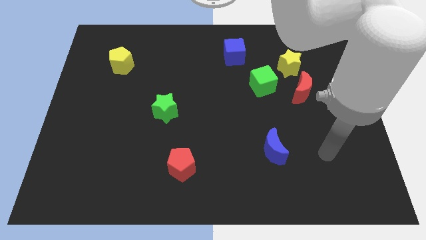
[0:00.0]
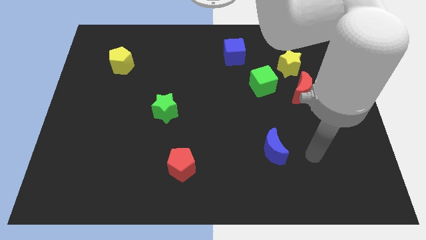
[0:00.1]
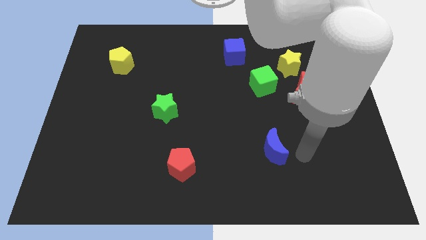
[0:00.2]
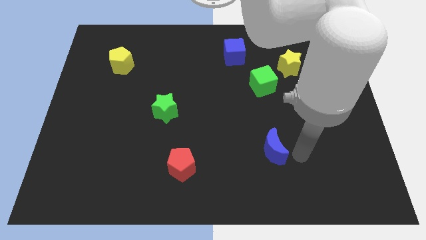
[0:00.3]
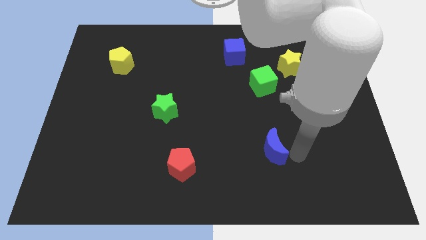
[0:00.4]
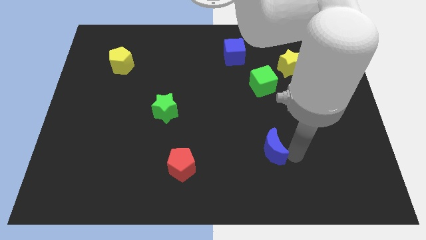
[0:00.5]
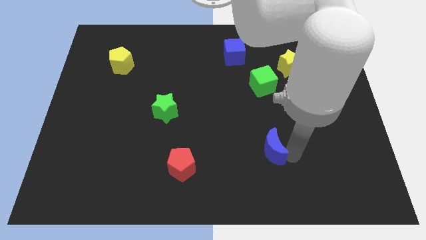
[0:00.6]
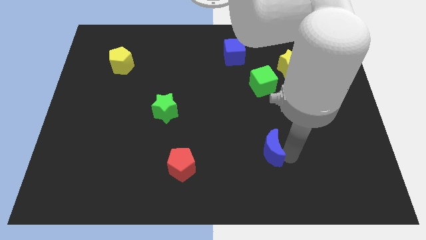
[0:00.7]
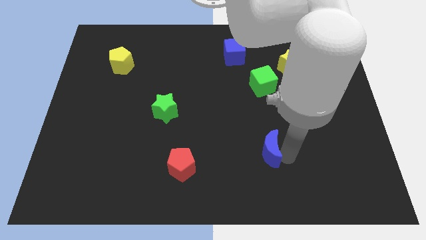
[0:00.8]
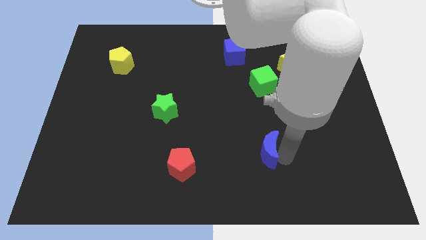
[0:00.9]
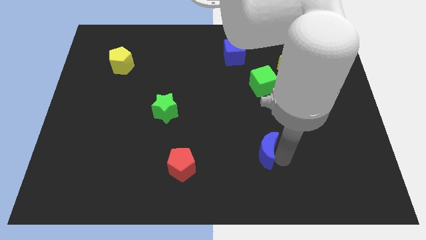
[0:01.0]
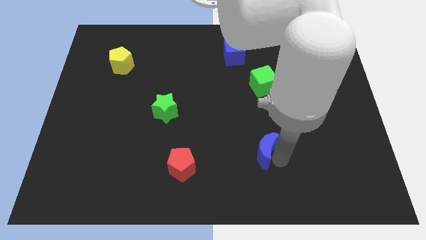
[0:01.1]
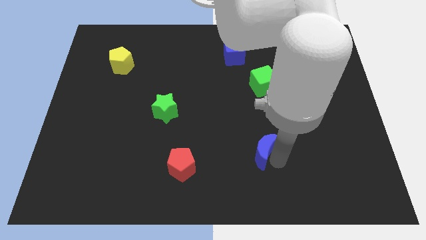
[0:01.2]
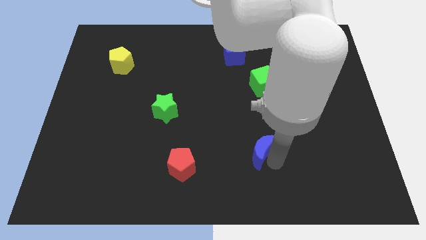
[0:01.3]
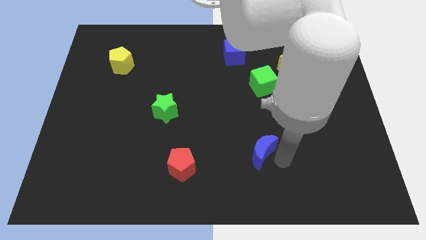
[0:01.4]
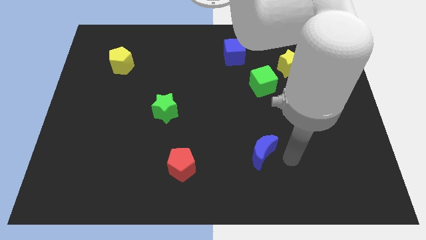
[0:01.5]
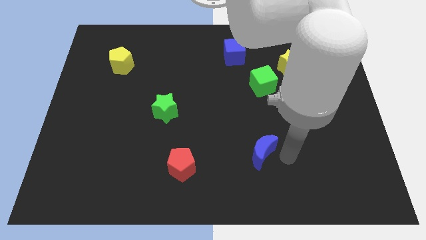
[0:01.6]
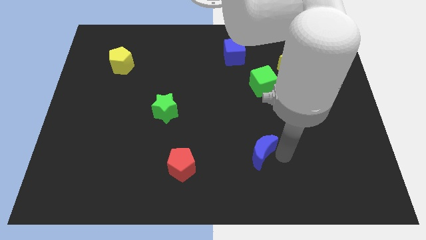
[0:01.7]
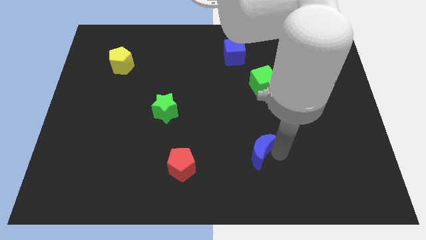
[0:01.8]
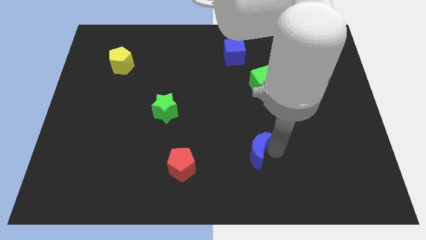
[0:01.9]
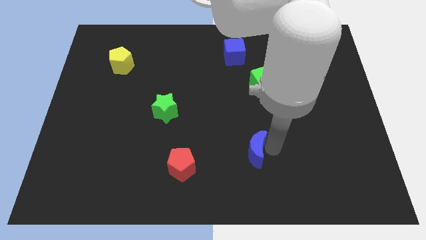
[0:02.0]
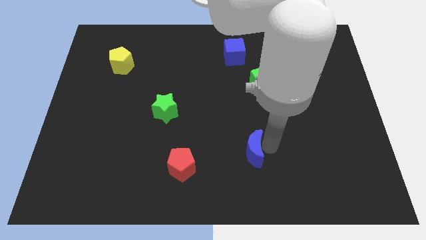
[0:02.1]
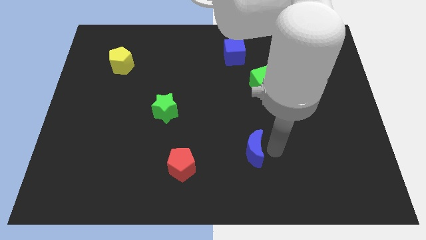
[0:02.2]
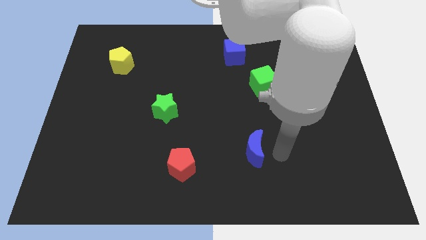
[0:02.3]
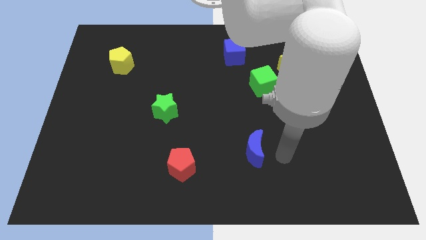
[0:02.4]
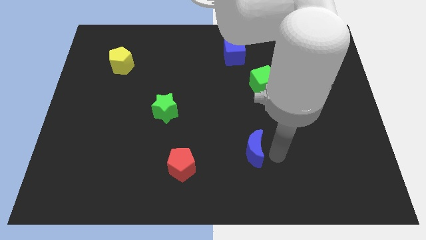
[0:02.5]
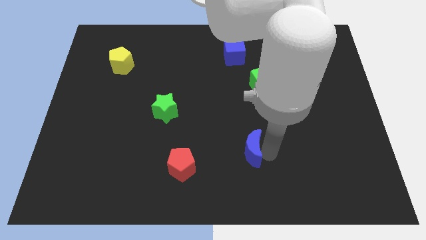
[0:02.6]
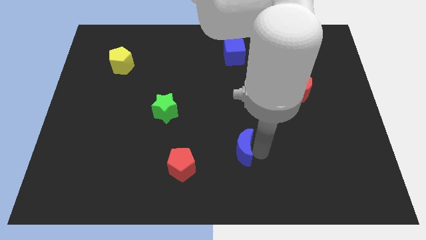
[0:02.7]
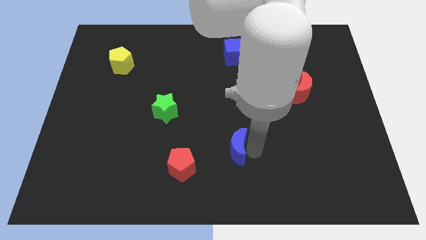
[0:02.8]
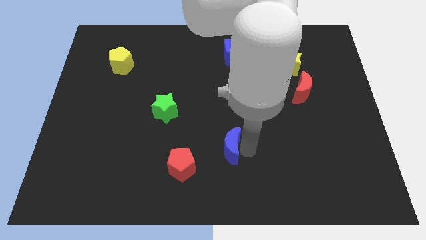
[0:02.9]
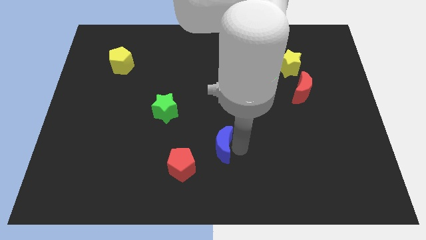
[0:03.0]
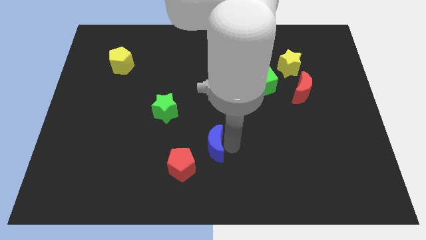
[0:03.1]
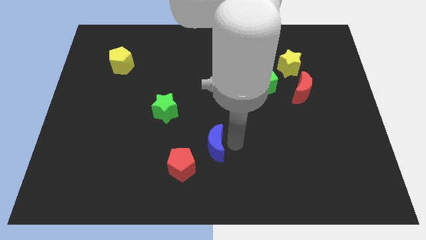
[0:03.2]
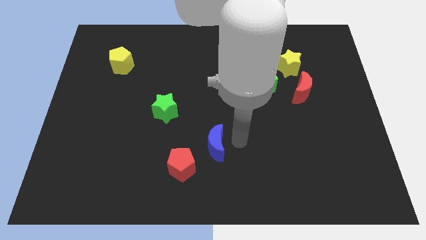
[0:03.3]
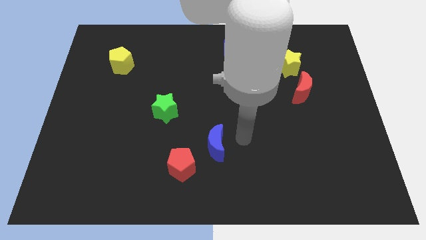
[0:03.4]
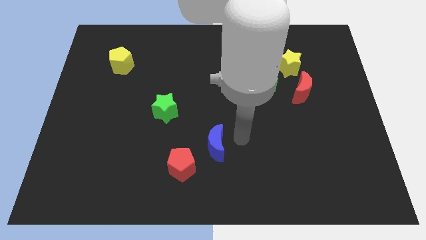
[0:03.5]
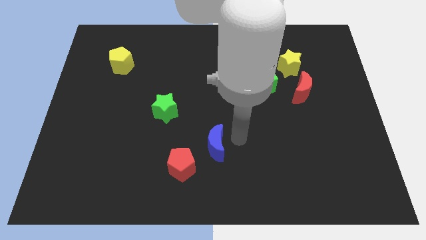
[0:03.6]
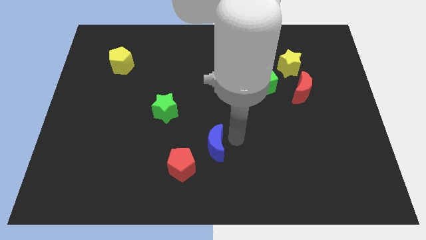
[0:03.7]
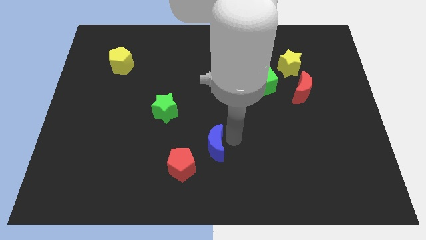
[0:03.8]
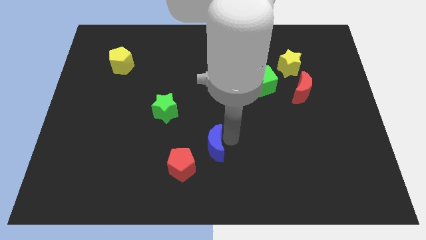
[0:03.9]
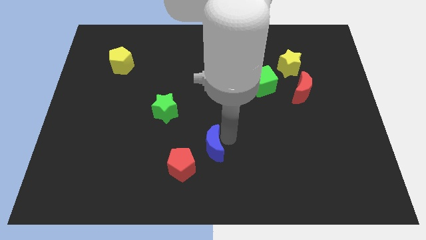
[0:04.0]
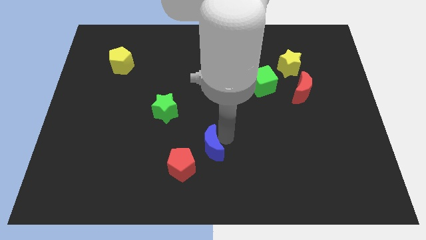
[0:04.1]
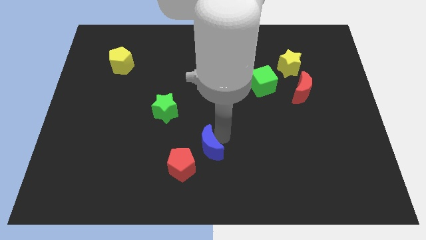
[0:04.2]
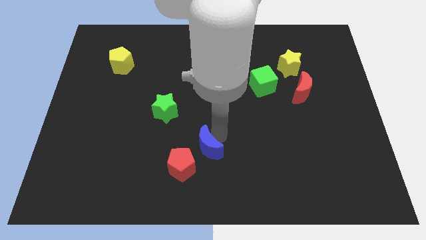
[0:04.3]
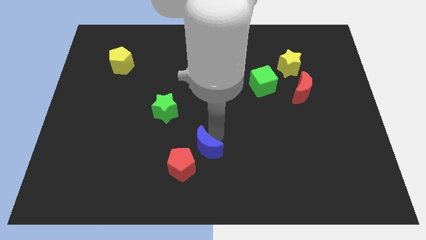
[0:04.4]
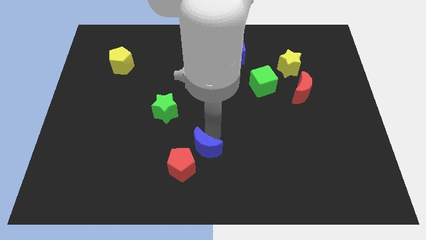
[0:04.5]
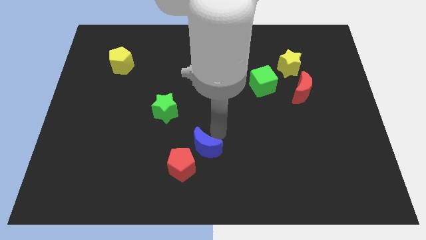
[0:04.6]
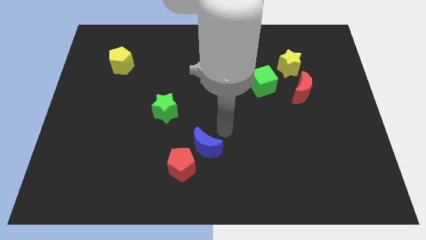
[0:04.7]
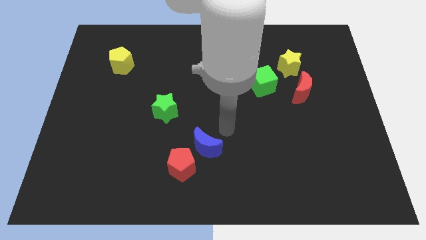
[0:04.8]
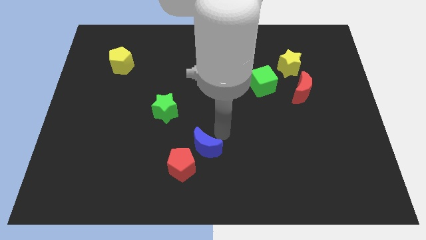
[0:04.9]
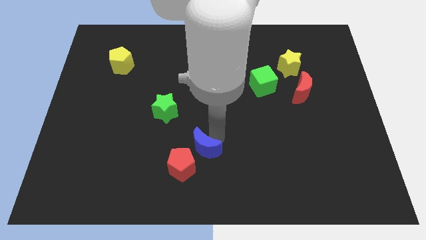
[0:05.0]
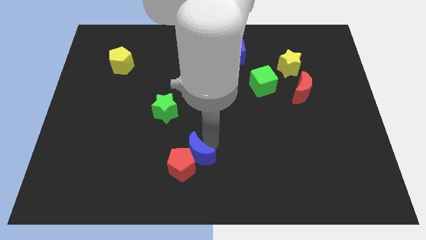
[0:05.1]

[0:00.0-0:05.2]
slide the blue moon next to the red pentagon

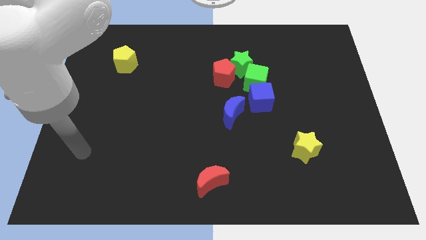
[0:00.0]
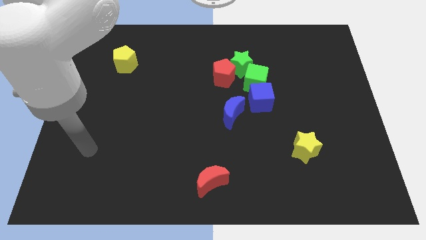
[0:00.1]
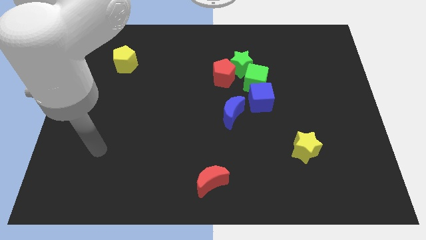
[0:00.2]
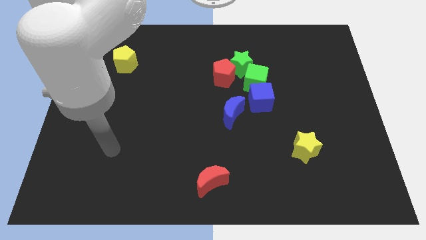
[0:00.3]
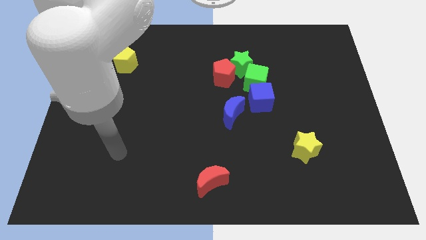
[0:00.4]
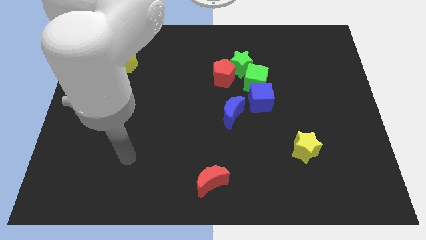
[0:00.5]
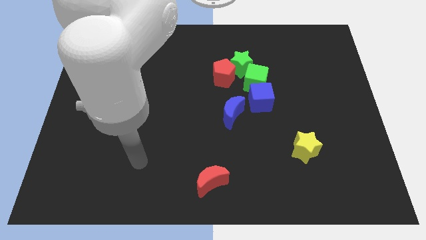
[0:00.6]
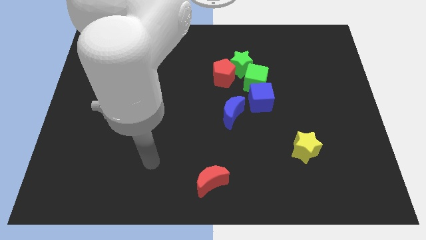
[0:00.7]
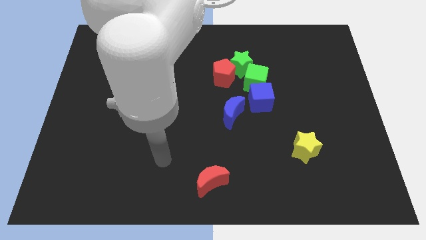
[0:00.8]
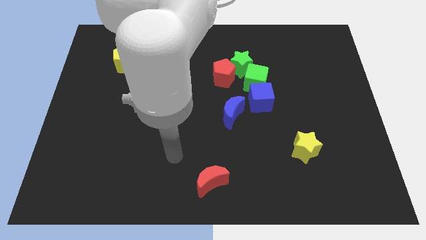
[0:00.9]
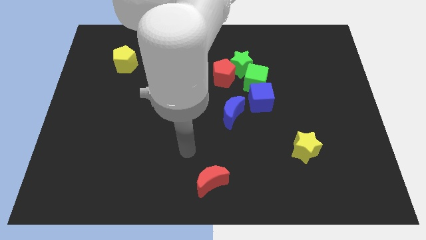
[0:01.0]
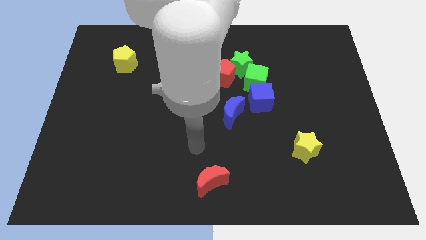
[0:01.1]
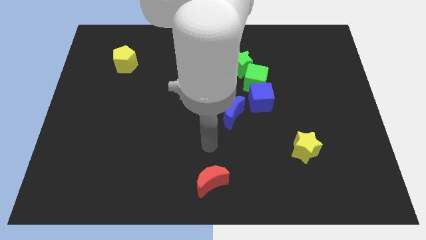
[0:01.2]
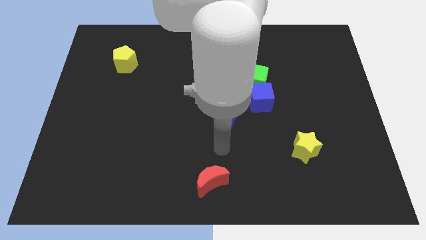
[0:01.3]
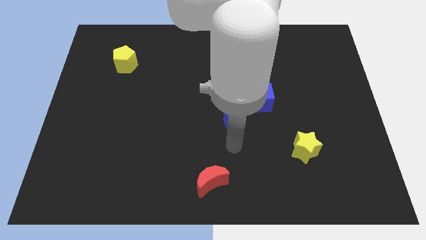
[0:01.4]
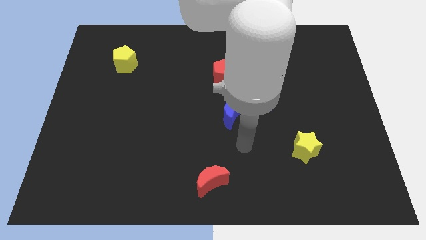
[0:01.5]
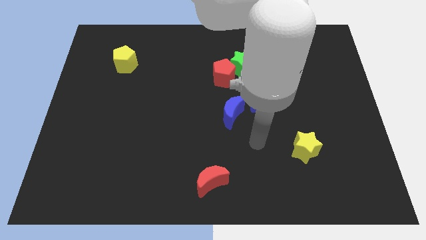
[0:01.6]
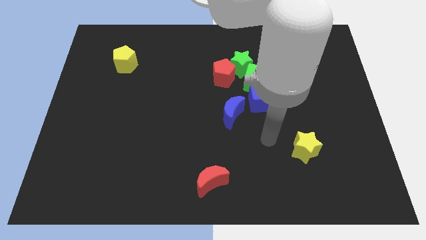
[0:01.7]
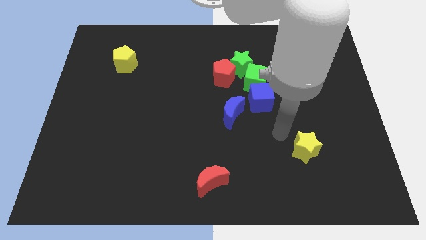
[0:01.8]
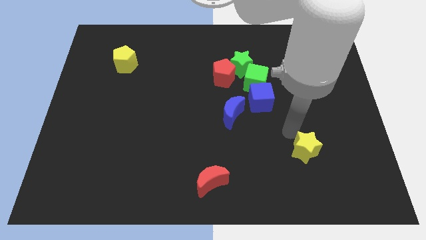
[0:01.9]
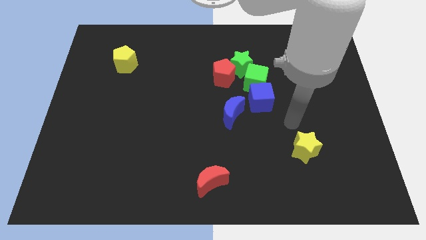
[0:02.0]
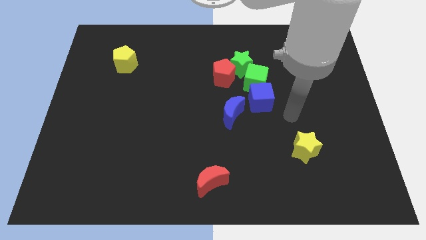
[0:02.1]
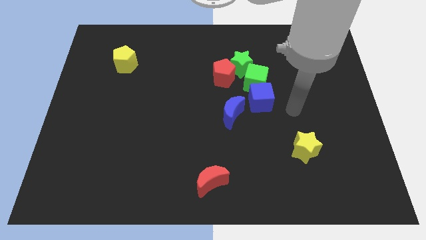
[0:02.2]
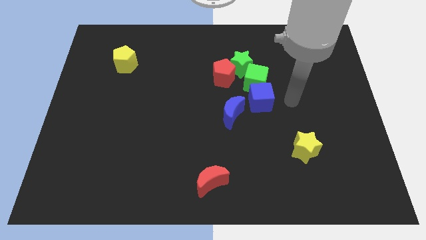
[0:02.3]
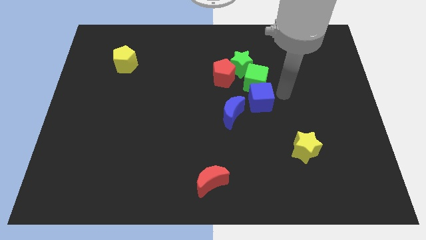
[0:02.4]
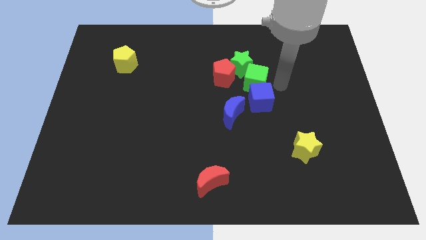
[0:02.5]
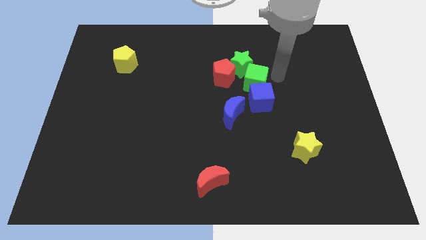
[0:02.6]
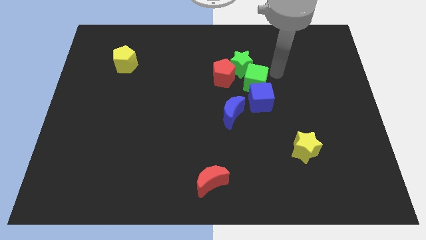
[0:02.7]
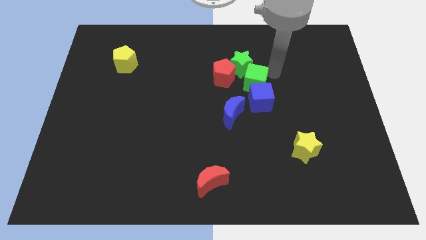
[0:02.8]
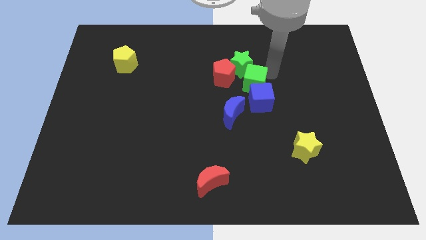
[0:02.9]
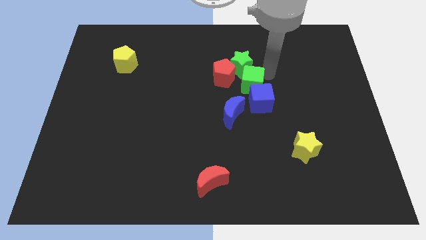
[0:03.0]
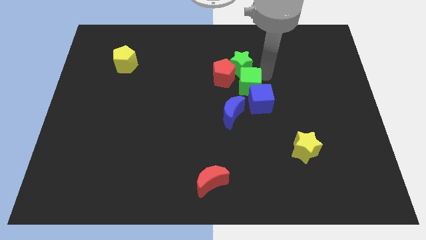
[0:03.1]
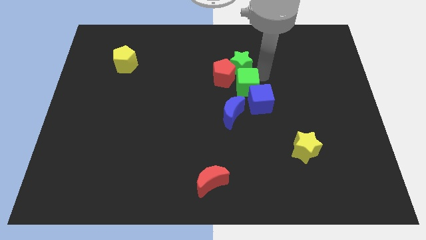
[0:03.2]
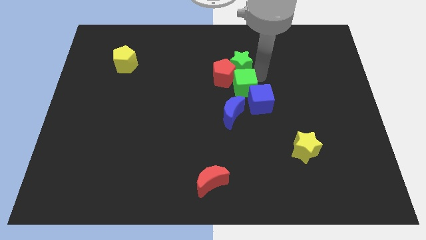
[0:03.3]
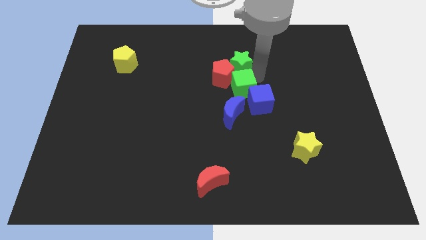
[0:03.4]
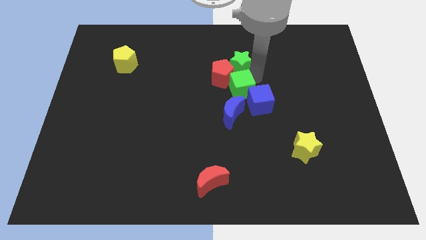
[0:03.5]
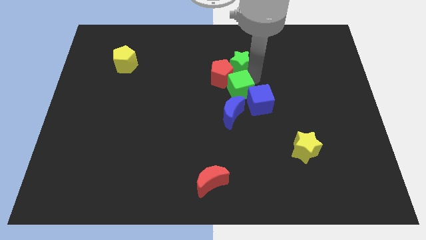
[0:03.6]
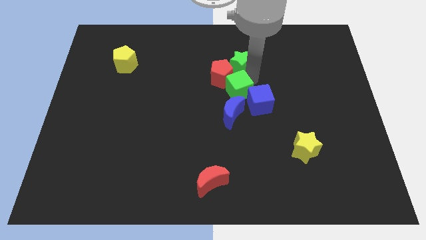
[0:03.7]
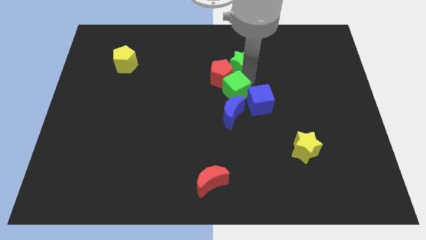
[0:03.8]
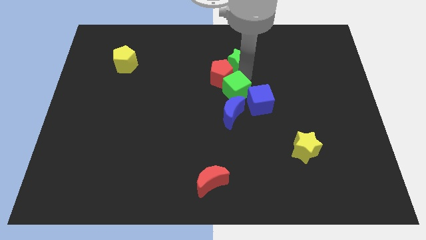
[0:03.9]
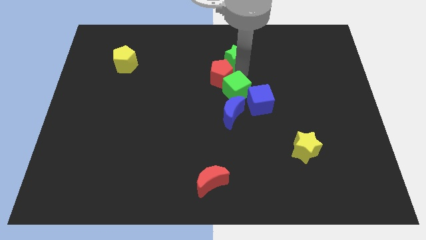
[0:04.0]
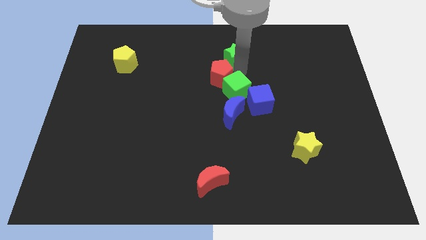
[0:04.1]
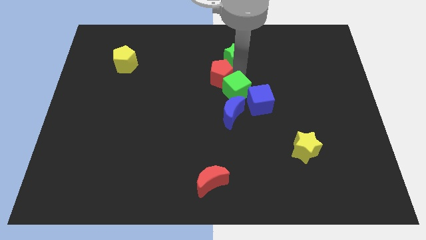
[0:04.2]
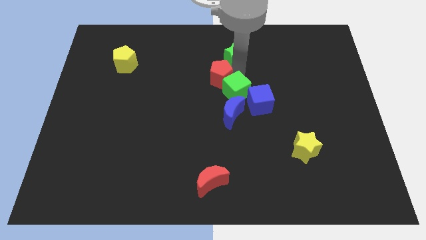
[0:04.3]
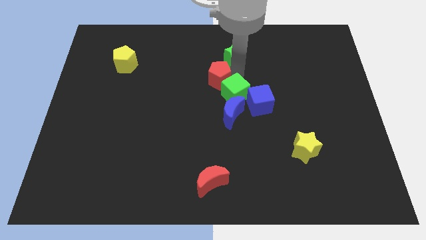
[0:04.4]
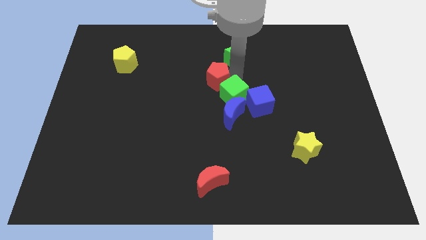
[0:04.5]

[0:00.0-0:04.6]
push the green cube next to the blue moon
